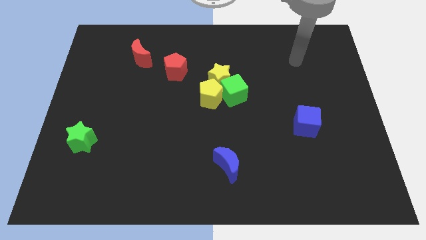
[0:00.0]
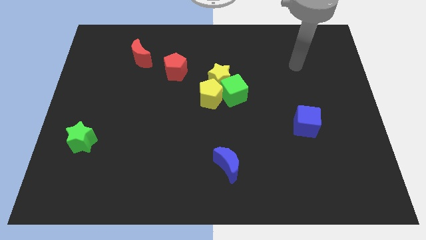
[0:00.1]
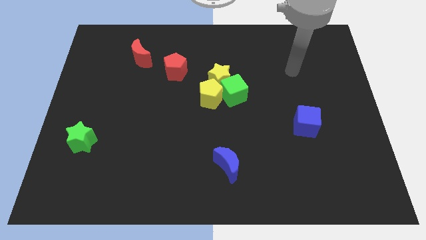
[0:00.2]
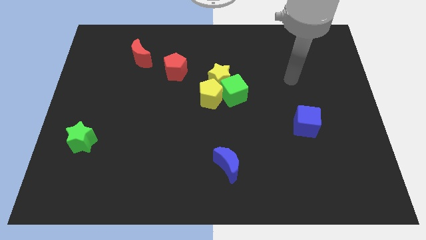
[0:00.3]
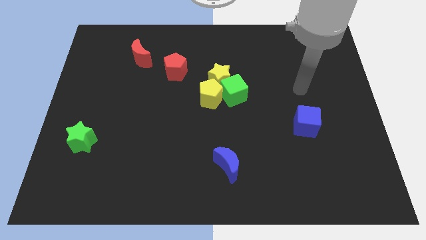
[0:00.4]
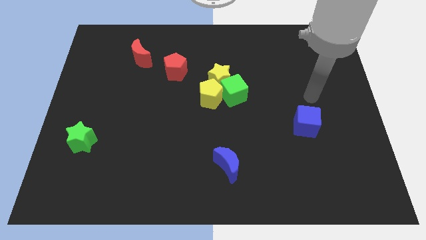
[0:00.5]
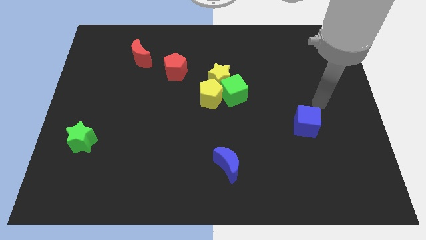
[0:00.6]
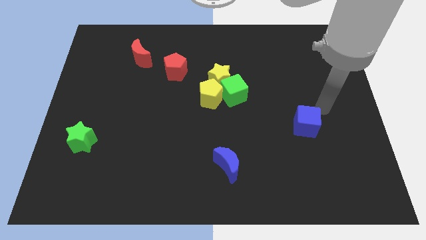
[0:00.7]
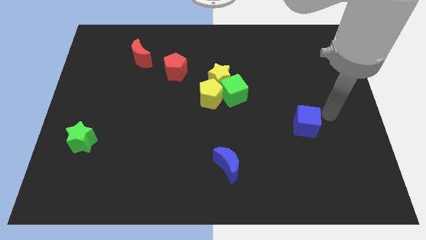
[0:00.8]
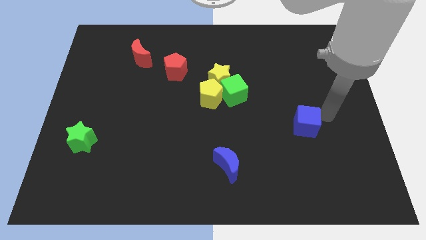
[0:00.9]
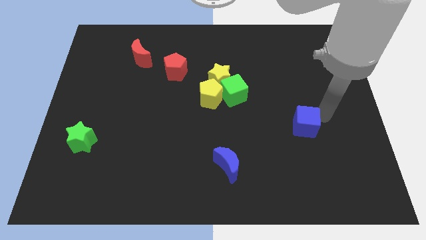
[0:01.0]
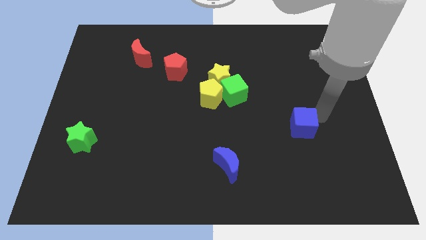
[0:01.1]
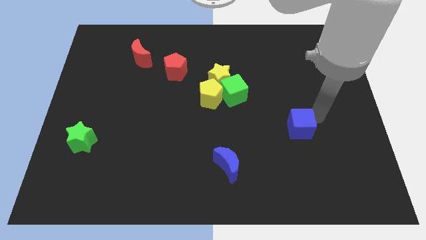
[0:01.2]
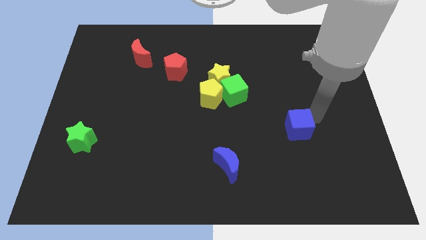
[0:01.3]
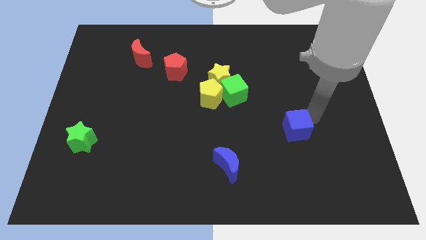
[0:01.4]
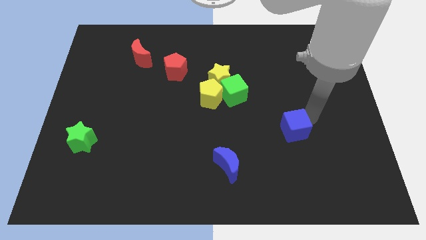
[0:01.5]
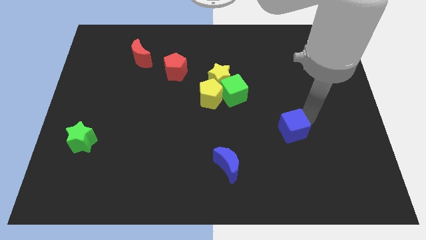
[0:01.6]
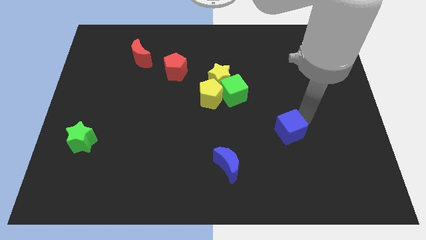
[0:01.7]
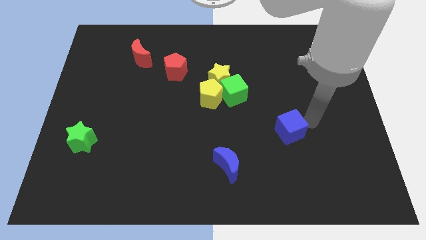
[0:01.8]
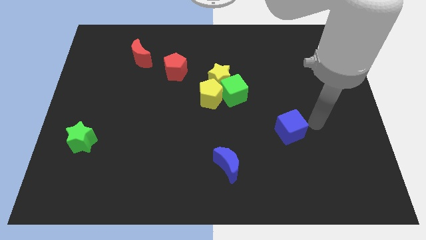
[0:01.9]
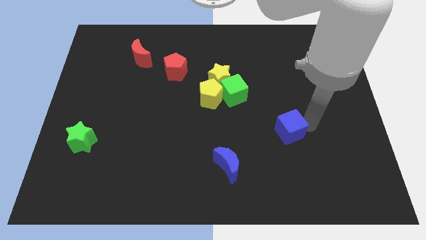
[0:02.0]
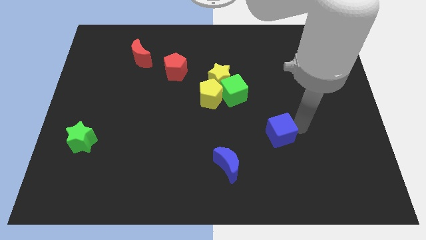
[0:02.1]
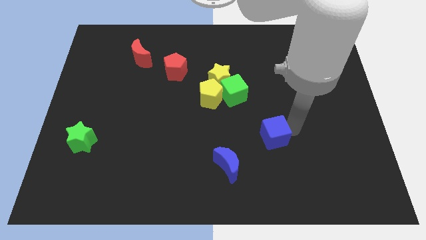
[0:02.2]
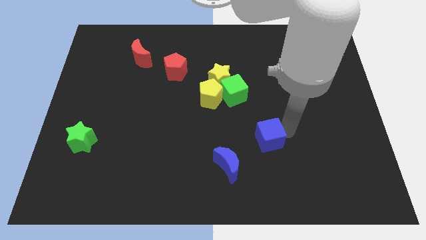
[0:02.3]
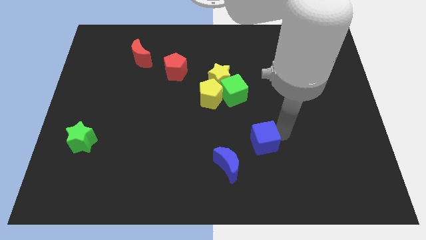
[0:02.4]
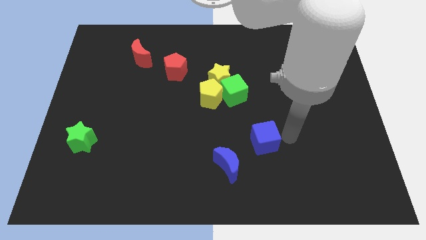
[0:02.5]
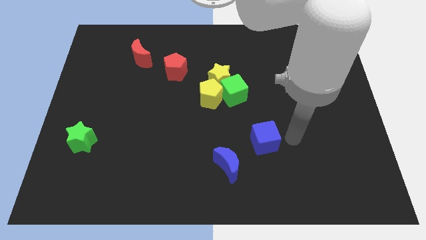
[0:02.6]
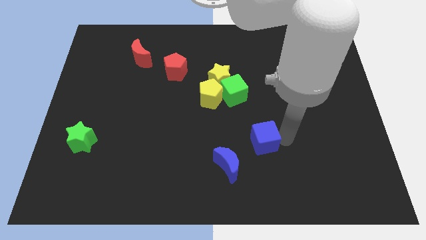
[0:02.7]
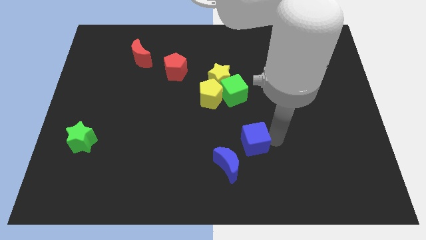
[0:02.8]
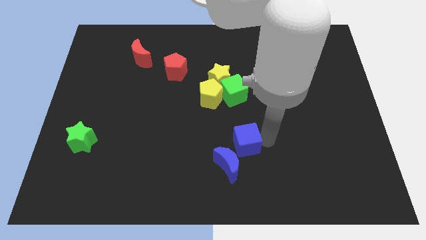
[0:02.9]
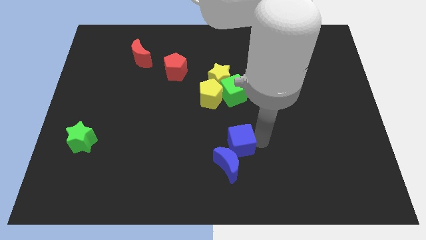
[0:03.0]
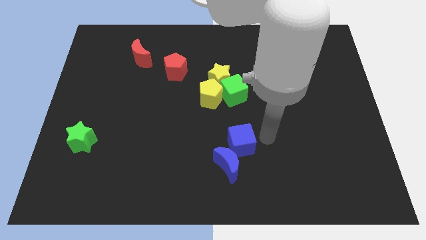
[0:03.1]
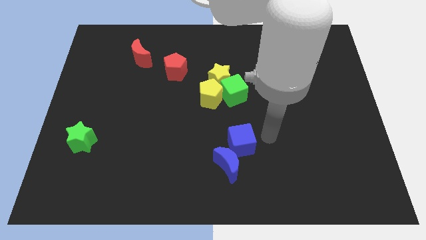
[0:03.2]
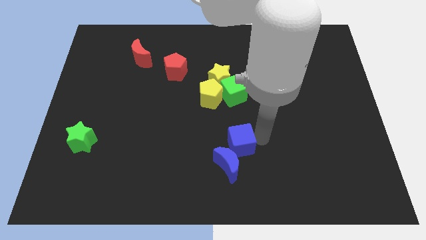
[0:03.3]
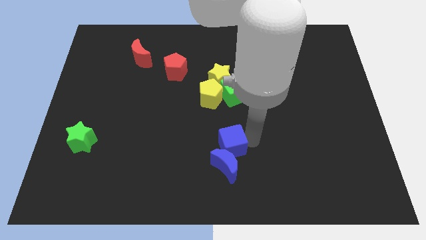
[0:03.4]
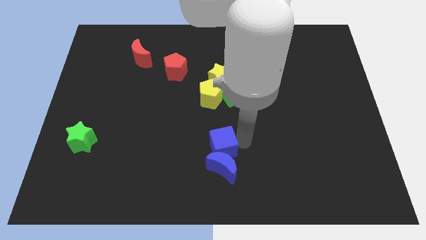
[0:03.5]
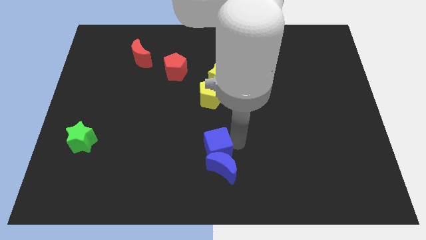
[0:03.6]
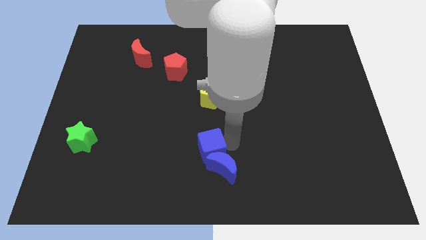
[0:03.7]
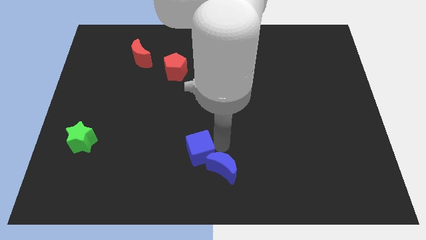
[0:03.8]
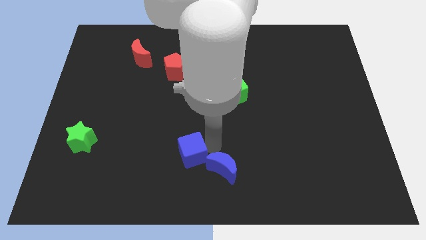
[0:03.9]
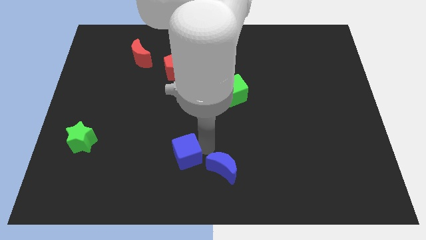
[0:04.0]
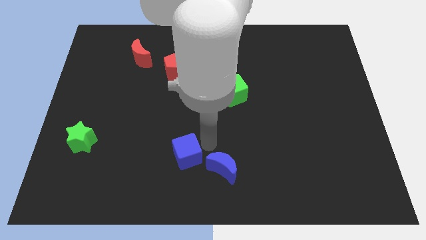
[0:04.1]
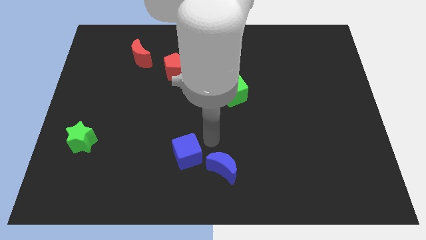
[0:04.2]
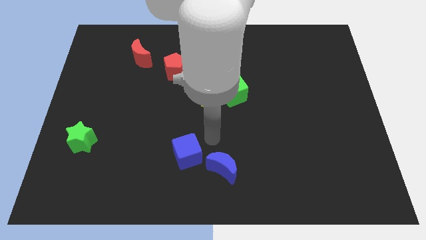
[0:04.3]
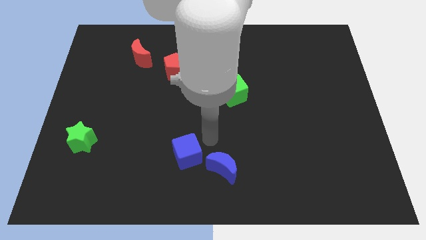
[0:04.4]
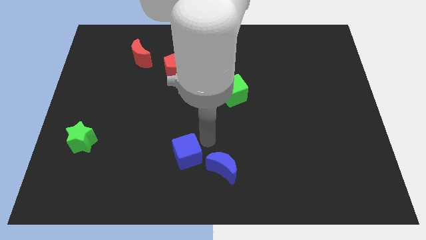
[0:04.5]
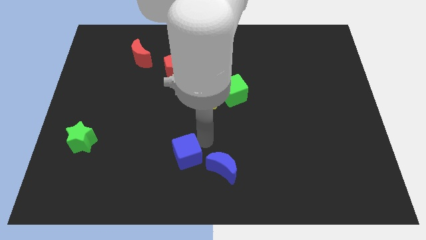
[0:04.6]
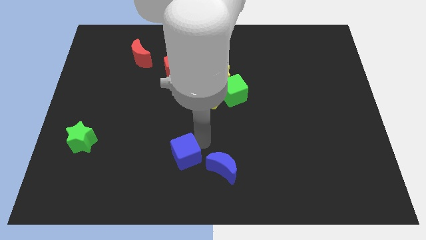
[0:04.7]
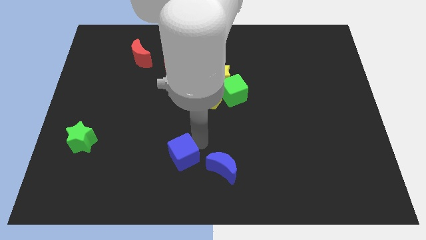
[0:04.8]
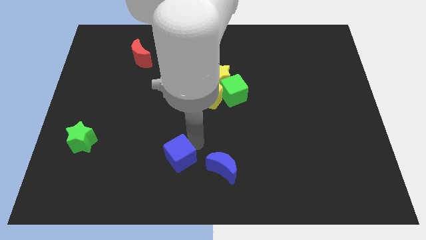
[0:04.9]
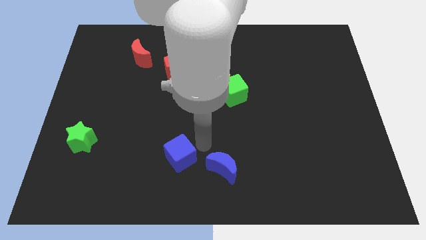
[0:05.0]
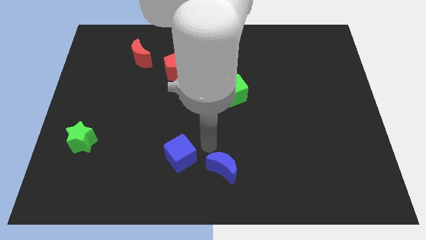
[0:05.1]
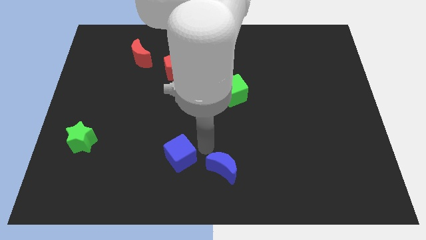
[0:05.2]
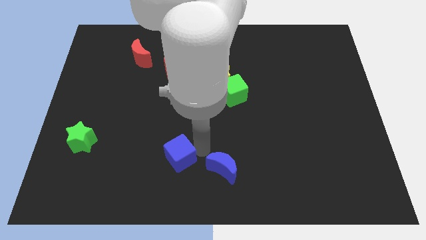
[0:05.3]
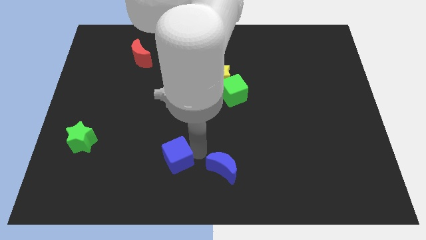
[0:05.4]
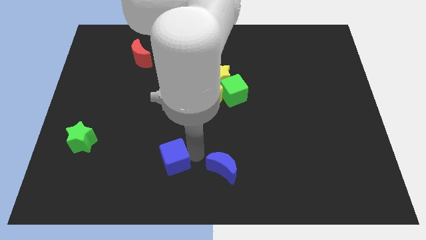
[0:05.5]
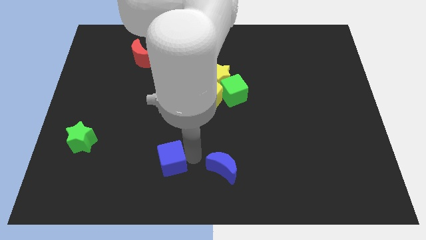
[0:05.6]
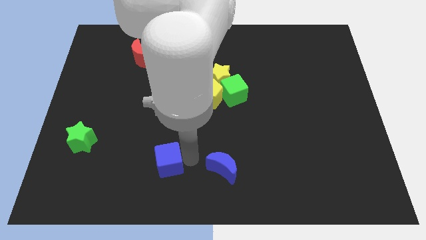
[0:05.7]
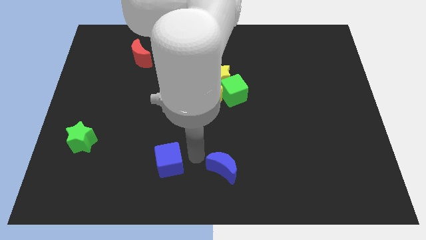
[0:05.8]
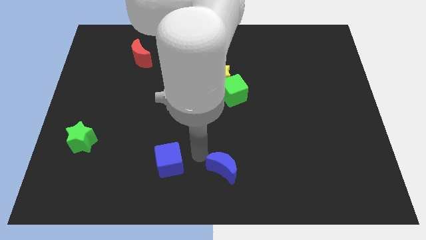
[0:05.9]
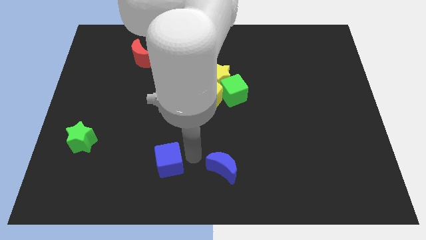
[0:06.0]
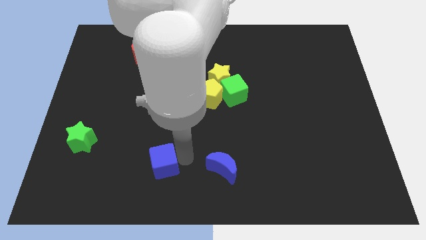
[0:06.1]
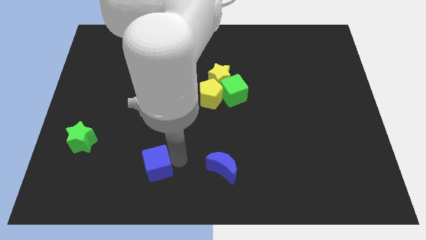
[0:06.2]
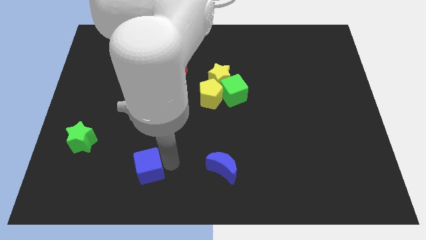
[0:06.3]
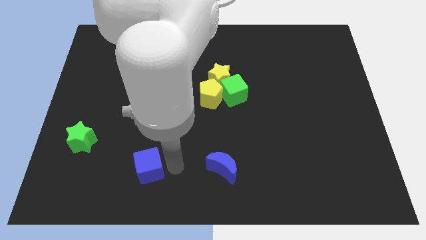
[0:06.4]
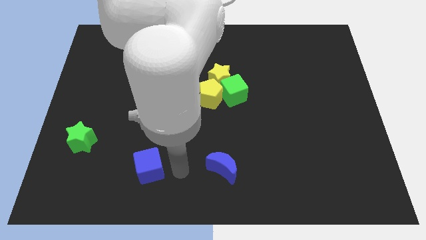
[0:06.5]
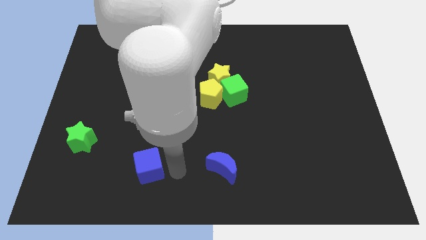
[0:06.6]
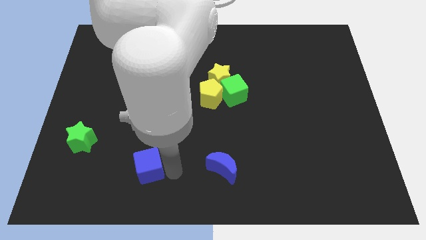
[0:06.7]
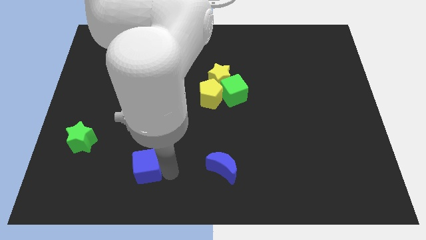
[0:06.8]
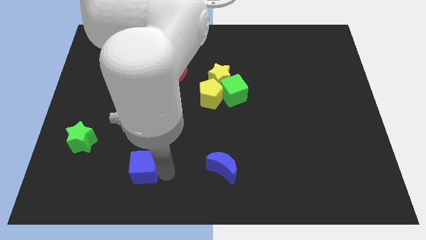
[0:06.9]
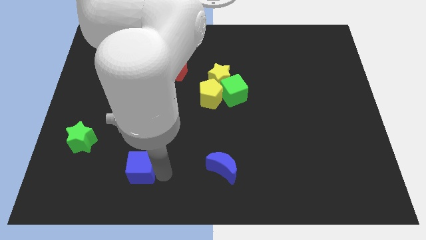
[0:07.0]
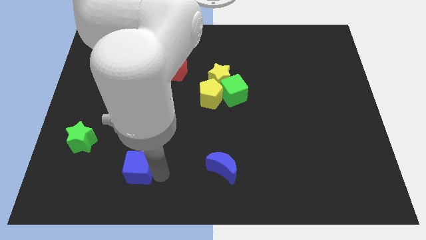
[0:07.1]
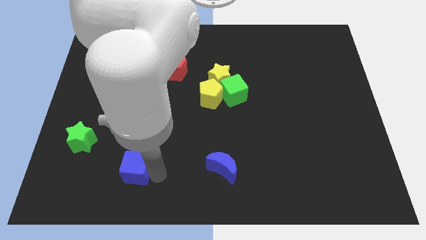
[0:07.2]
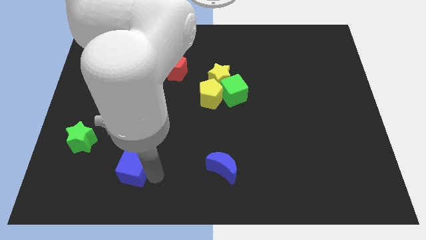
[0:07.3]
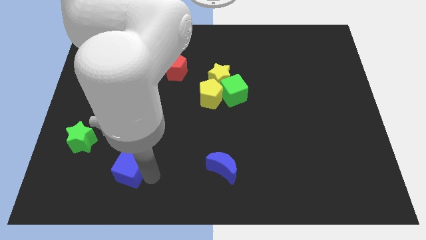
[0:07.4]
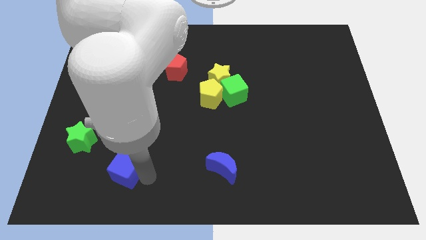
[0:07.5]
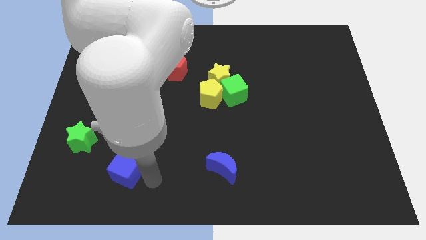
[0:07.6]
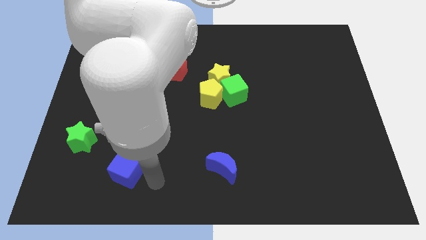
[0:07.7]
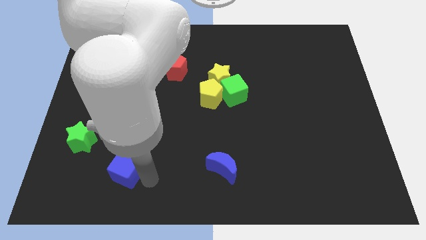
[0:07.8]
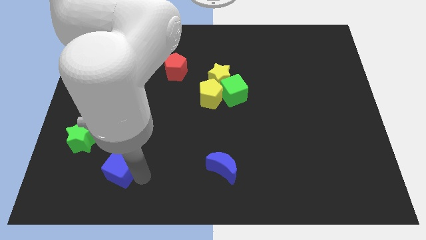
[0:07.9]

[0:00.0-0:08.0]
push the blue cube diagonally down and to the right of the green star
